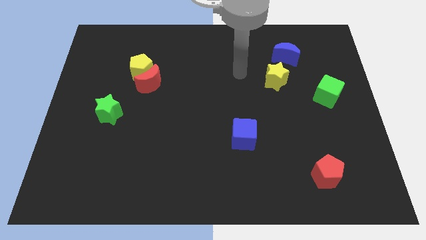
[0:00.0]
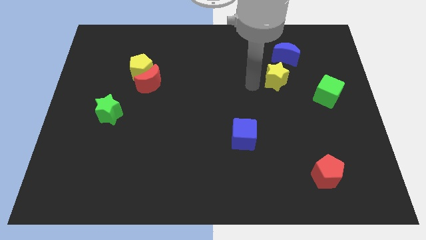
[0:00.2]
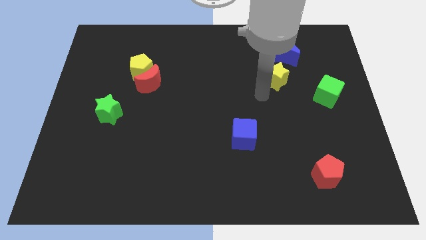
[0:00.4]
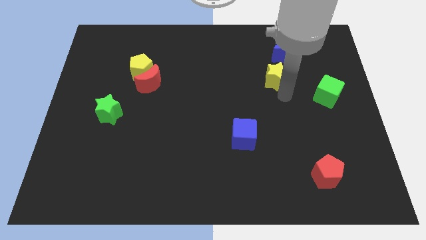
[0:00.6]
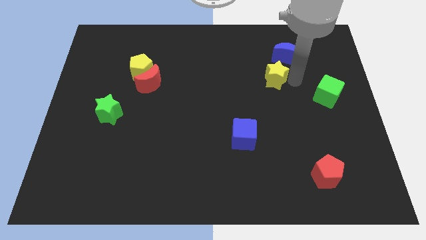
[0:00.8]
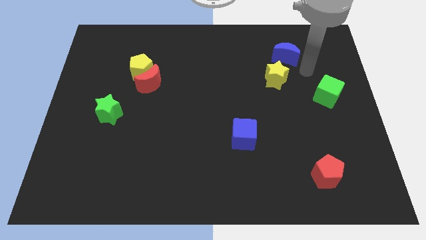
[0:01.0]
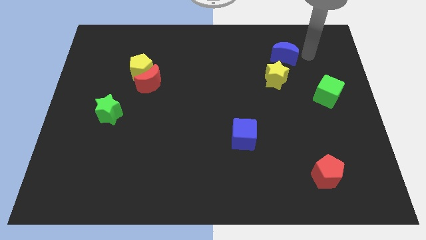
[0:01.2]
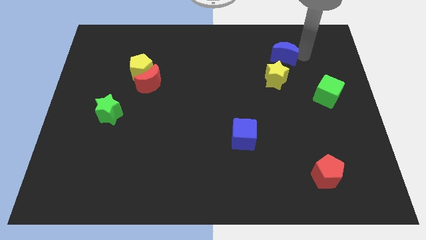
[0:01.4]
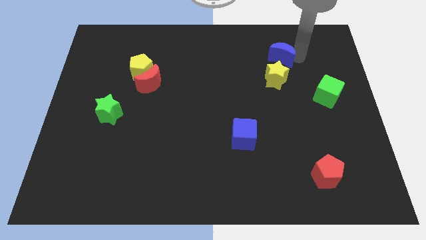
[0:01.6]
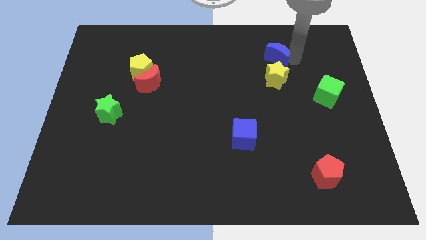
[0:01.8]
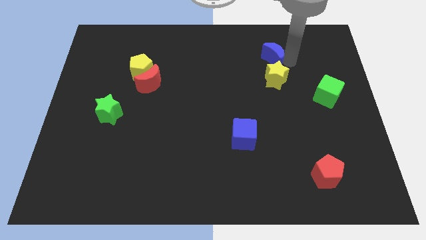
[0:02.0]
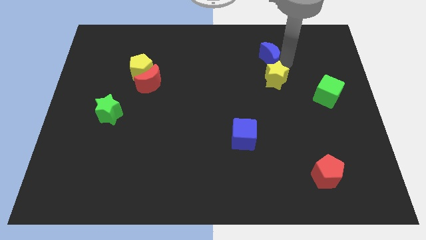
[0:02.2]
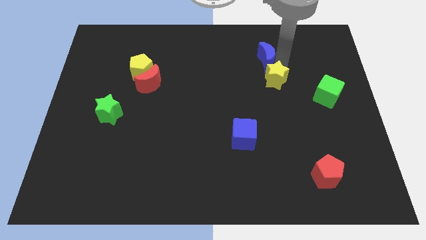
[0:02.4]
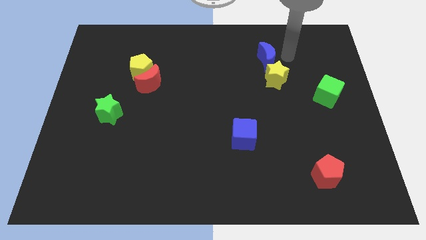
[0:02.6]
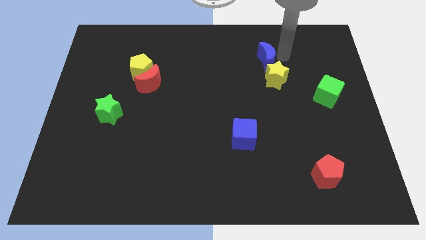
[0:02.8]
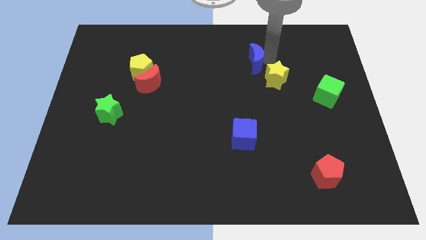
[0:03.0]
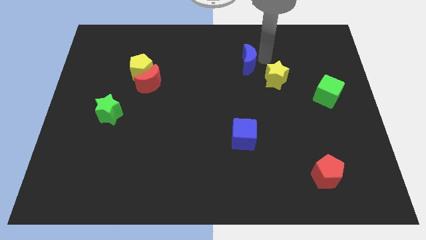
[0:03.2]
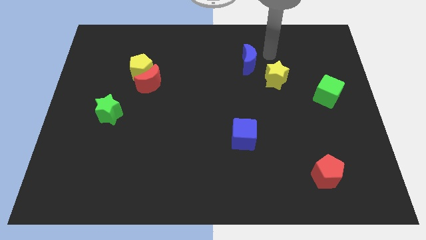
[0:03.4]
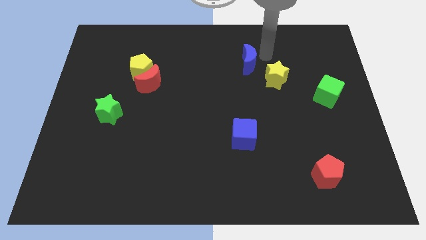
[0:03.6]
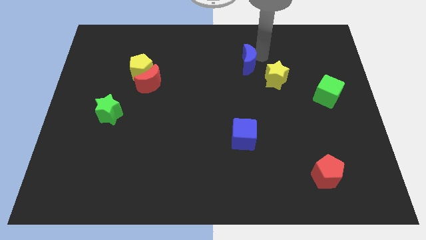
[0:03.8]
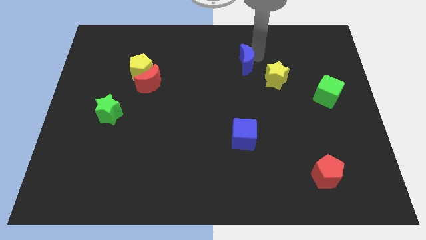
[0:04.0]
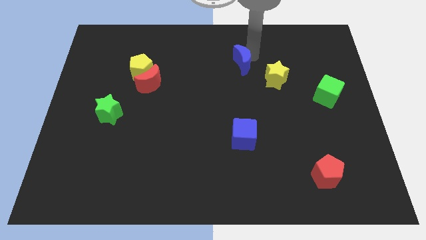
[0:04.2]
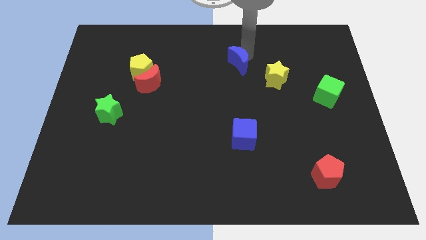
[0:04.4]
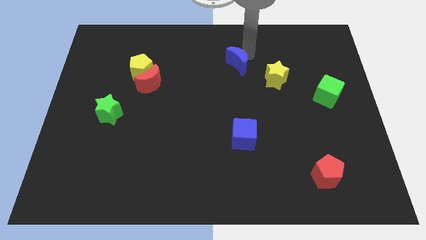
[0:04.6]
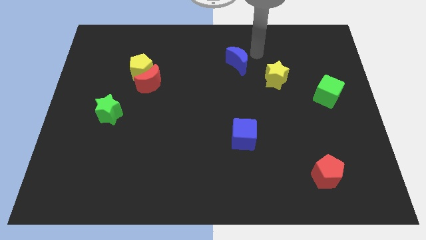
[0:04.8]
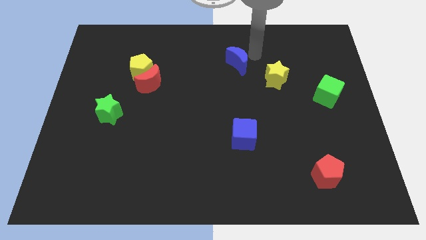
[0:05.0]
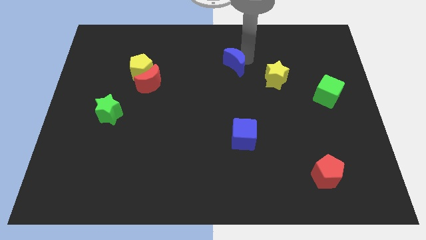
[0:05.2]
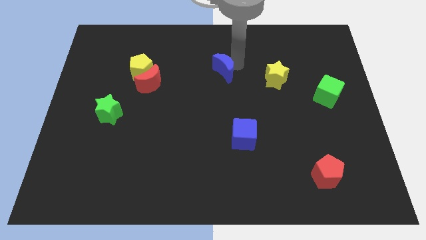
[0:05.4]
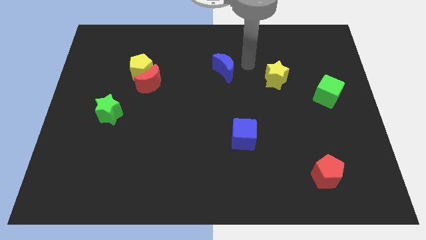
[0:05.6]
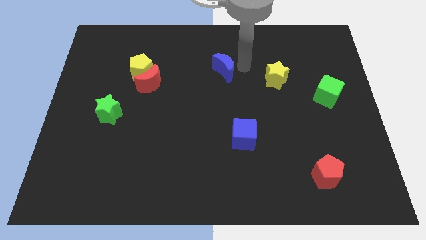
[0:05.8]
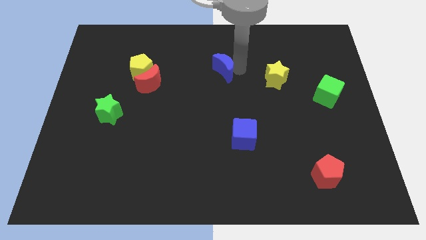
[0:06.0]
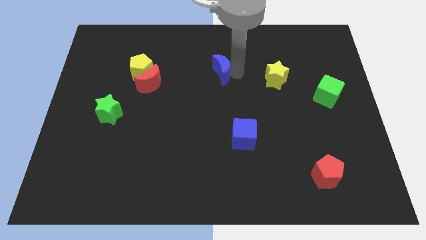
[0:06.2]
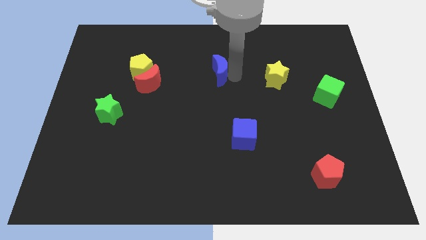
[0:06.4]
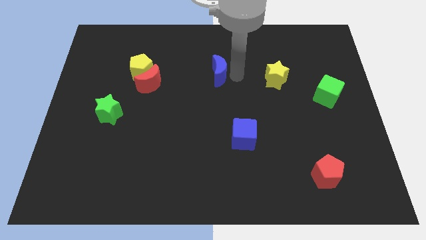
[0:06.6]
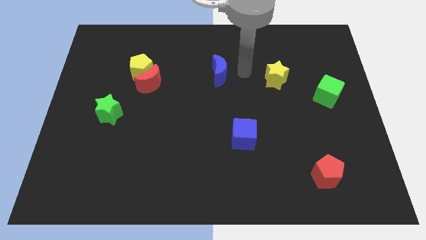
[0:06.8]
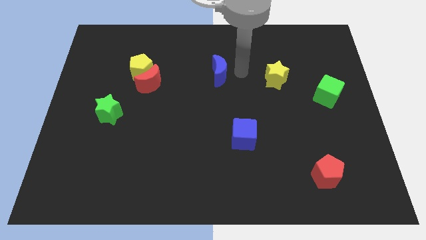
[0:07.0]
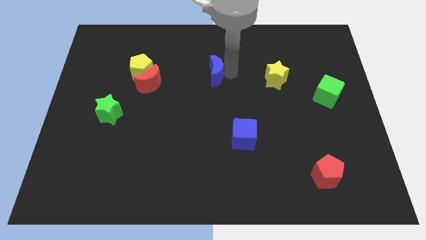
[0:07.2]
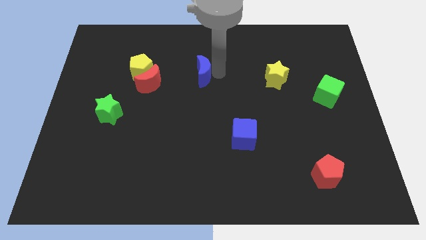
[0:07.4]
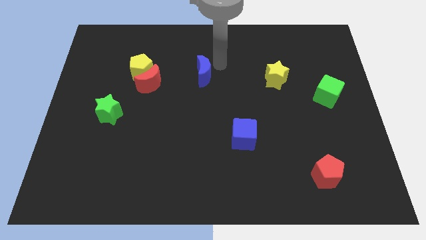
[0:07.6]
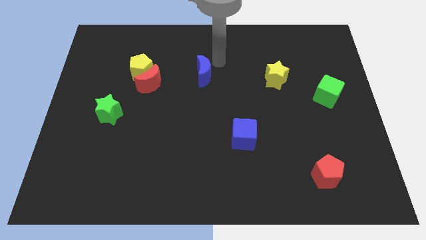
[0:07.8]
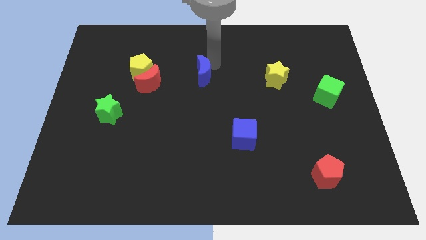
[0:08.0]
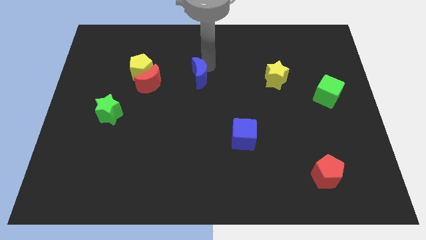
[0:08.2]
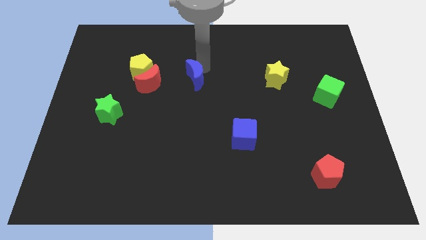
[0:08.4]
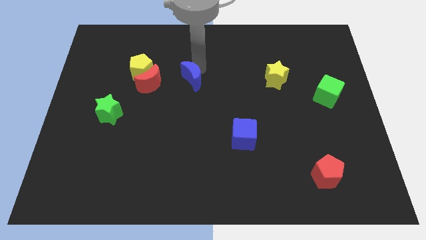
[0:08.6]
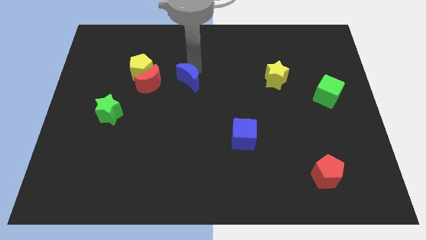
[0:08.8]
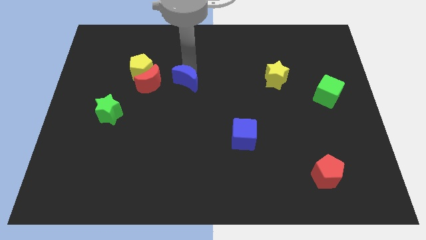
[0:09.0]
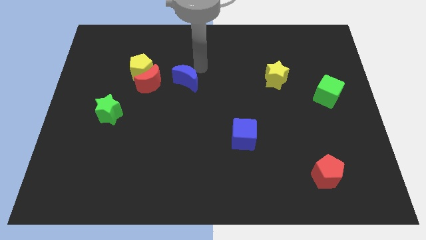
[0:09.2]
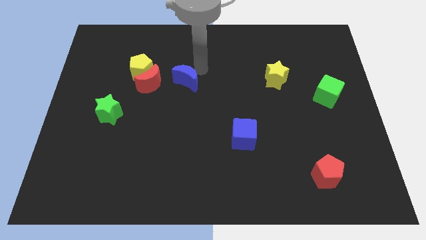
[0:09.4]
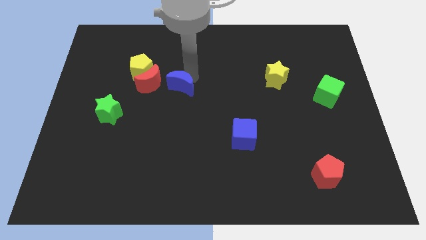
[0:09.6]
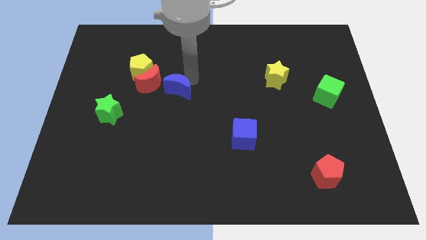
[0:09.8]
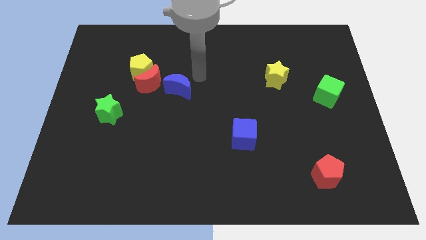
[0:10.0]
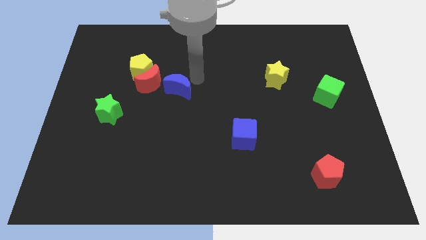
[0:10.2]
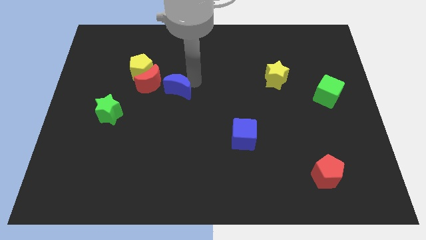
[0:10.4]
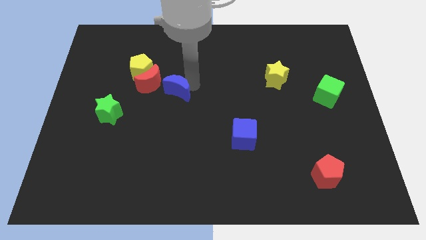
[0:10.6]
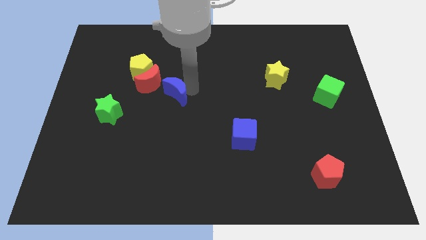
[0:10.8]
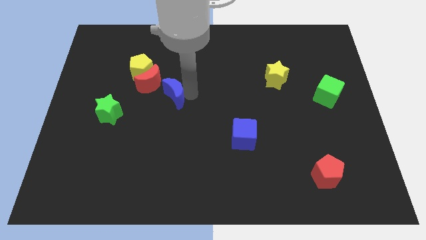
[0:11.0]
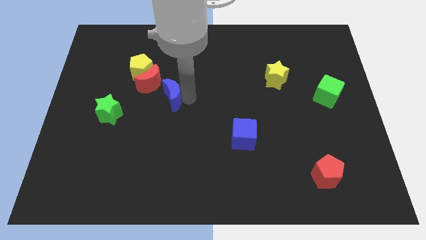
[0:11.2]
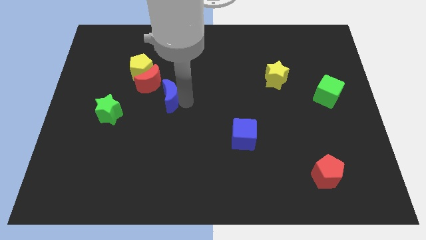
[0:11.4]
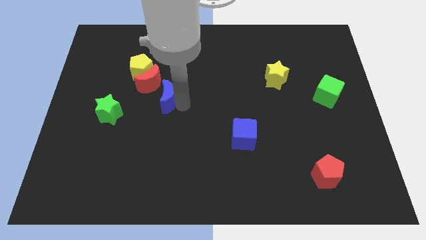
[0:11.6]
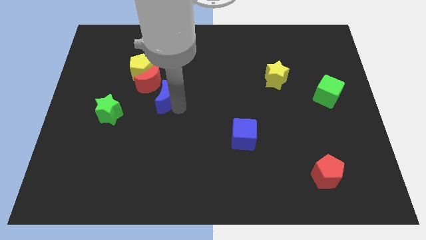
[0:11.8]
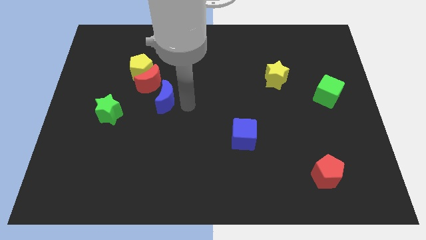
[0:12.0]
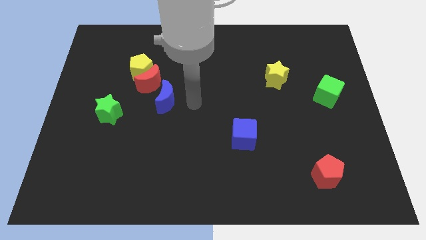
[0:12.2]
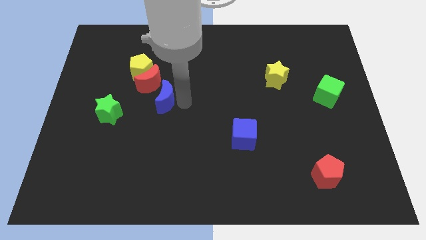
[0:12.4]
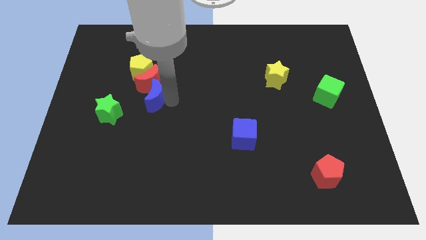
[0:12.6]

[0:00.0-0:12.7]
slide the blue moon to the bottom side of the yellow pentagon
